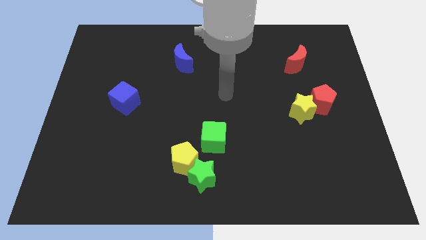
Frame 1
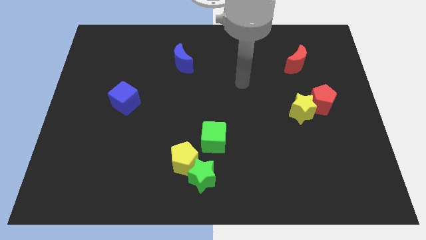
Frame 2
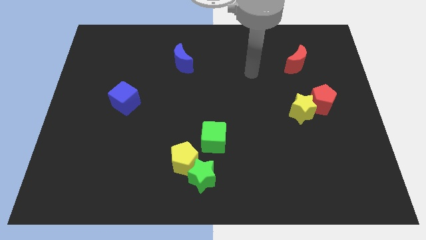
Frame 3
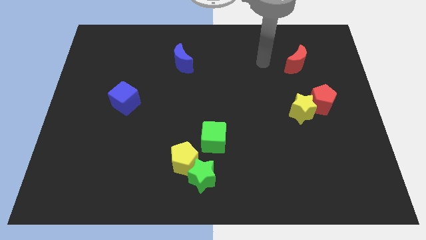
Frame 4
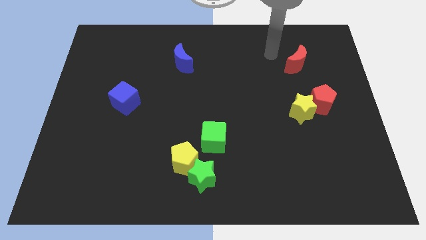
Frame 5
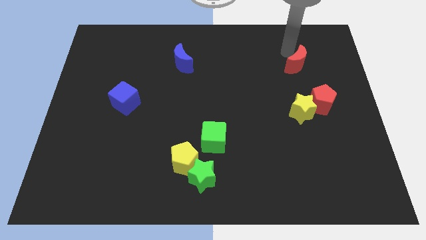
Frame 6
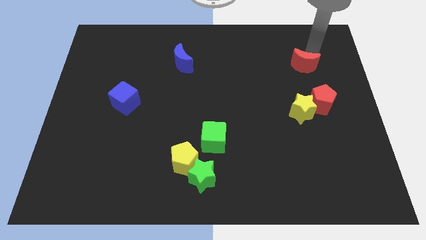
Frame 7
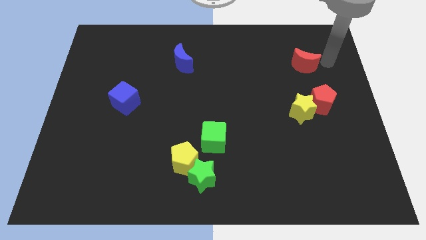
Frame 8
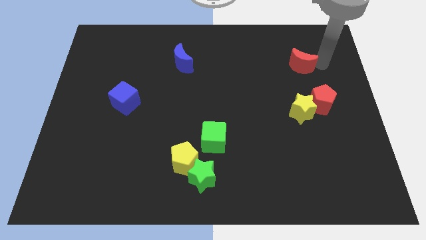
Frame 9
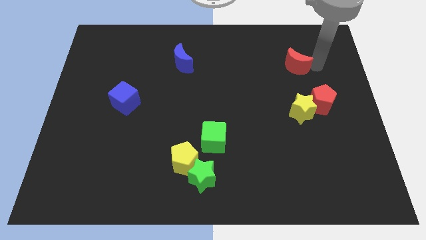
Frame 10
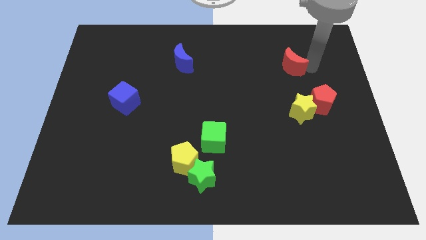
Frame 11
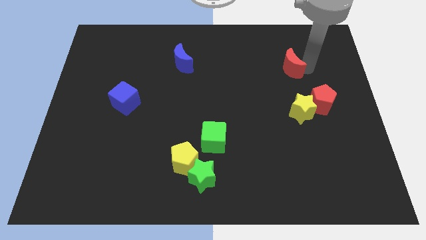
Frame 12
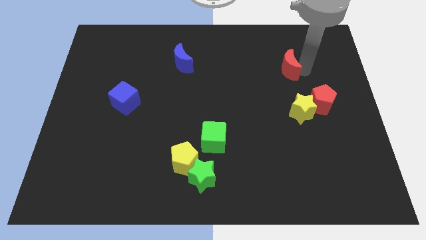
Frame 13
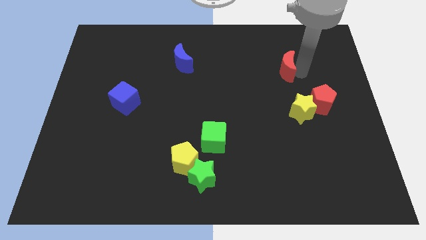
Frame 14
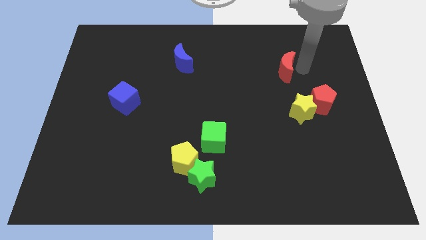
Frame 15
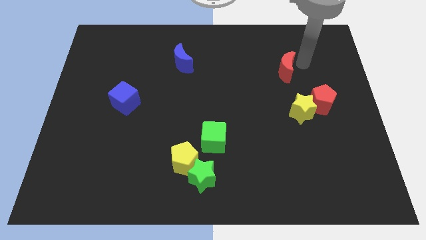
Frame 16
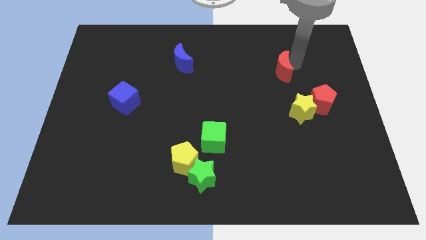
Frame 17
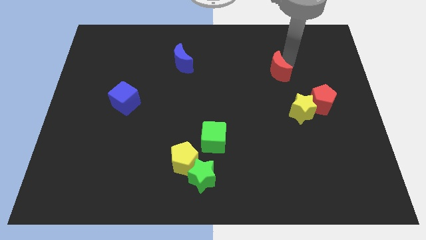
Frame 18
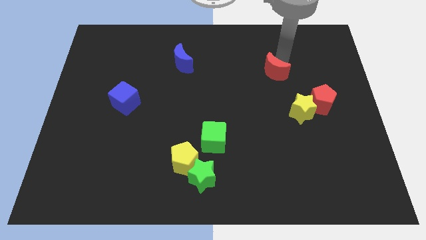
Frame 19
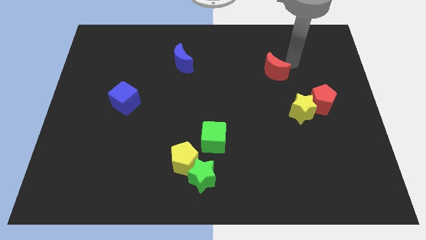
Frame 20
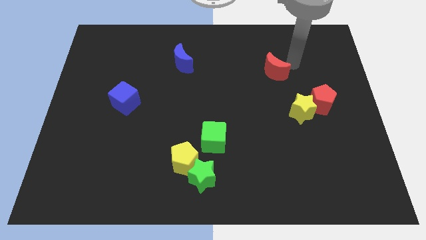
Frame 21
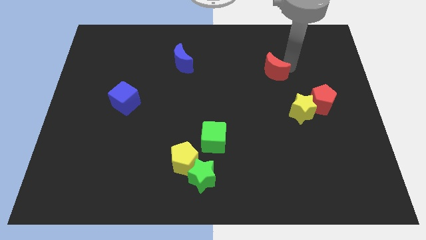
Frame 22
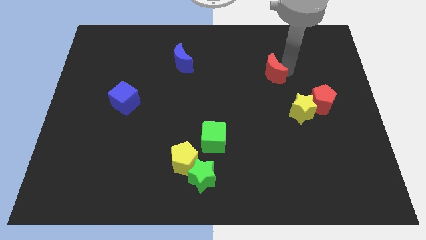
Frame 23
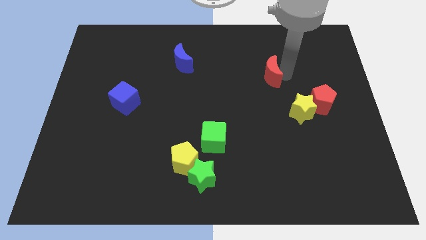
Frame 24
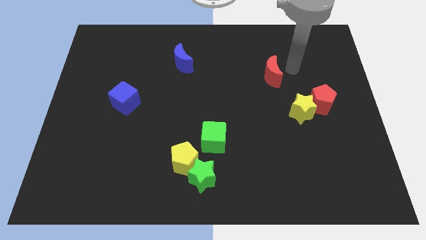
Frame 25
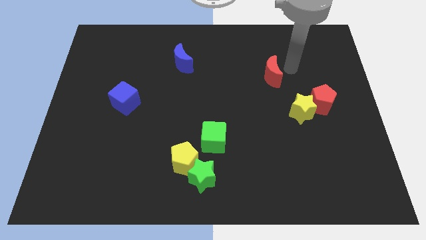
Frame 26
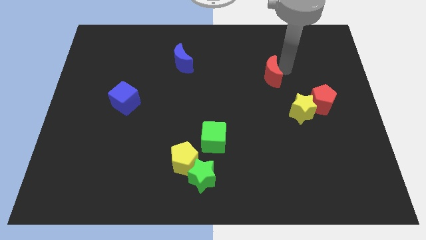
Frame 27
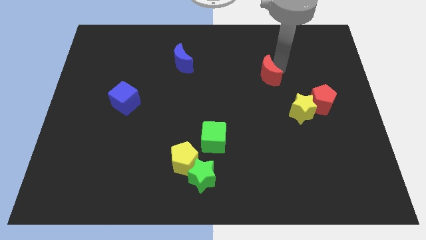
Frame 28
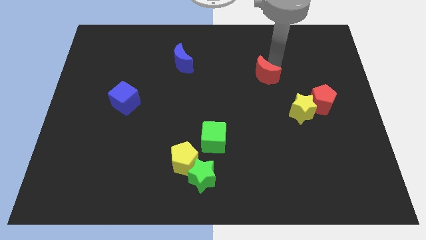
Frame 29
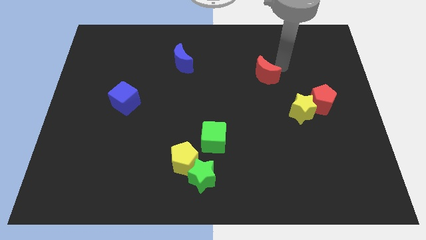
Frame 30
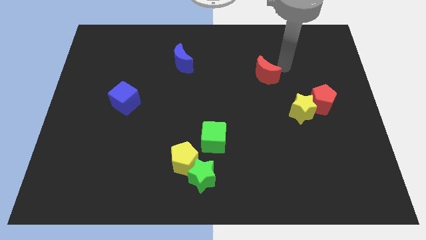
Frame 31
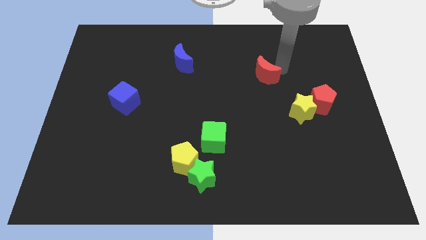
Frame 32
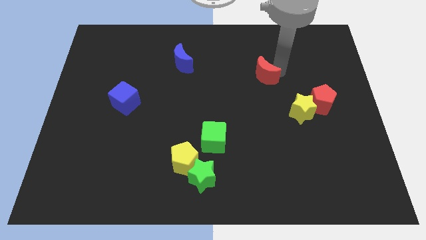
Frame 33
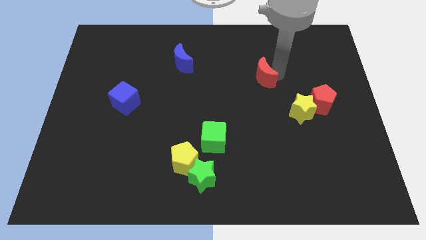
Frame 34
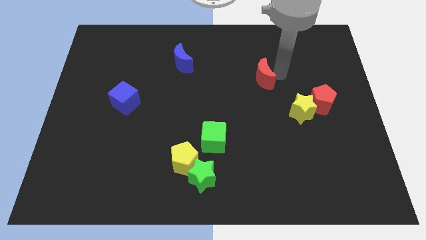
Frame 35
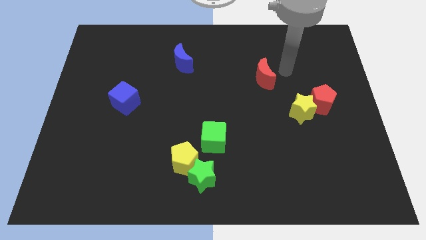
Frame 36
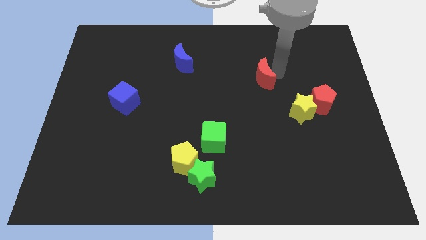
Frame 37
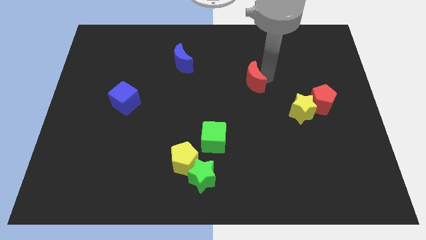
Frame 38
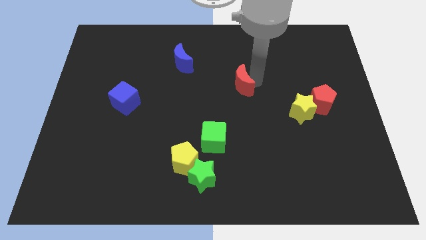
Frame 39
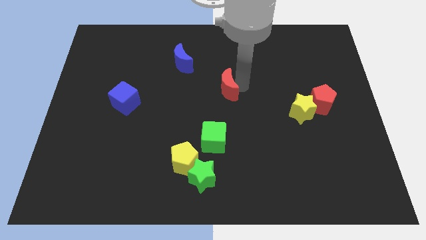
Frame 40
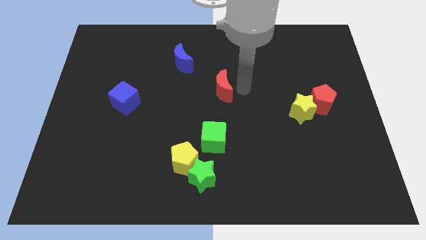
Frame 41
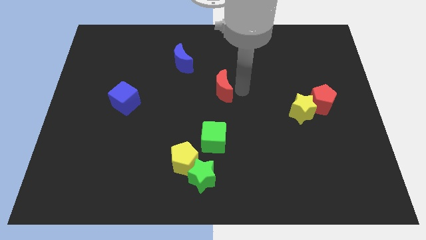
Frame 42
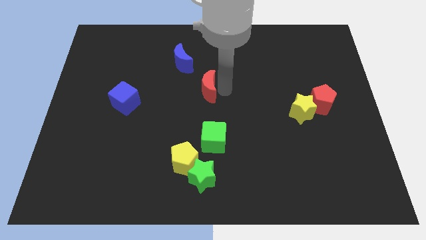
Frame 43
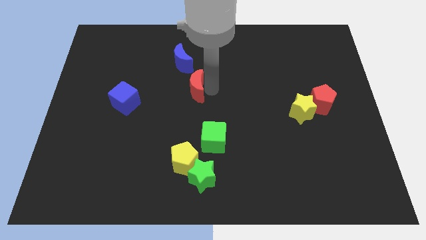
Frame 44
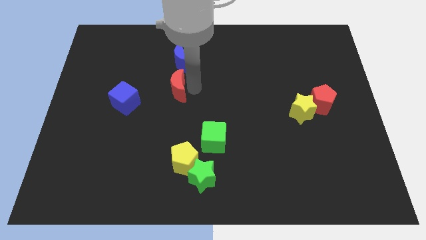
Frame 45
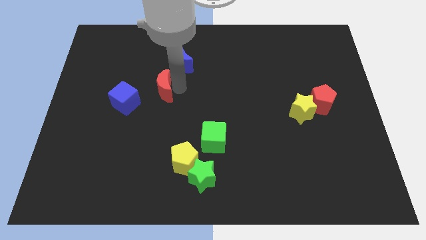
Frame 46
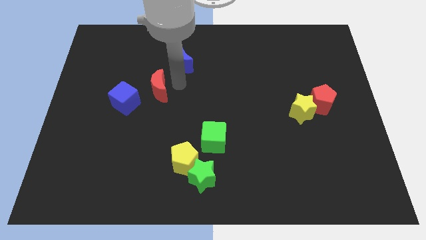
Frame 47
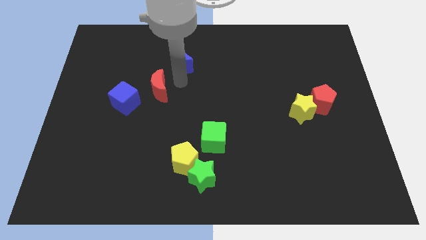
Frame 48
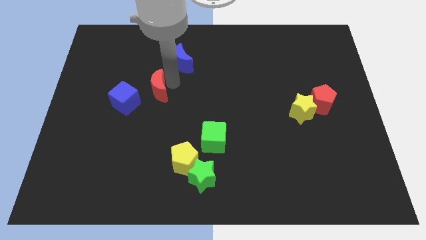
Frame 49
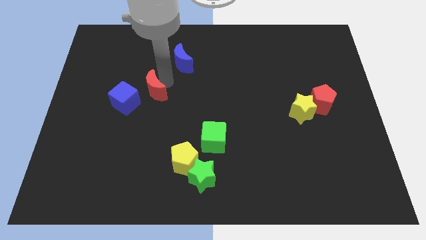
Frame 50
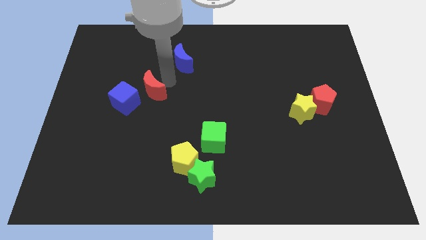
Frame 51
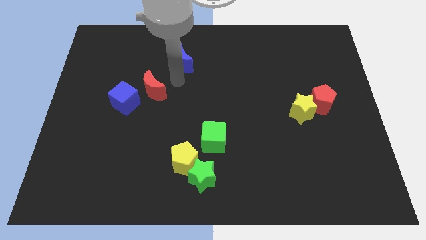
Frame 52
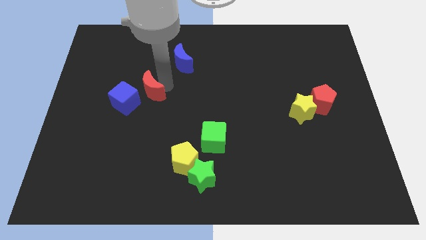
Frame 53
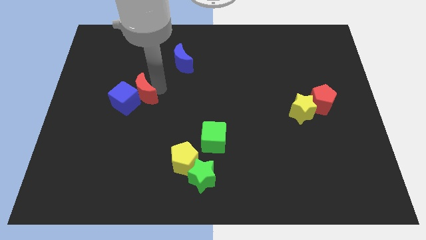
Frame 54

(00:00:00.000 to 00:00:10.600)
put the red moon to the blue cube

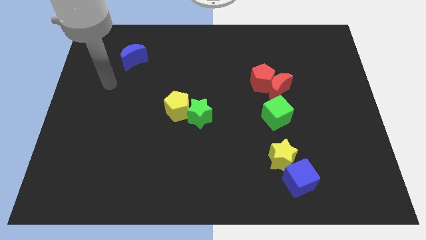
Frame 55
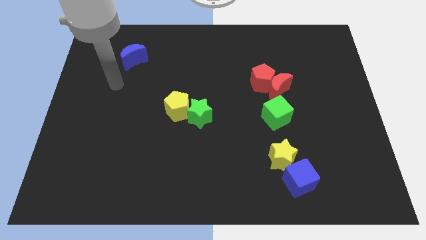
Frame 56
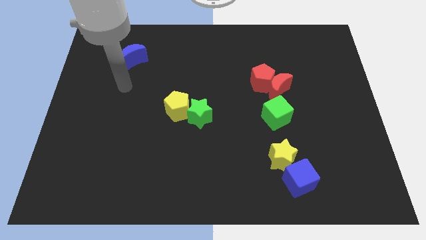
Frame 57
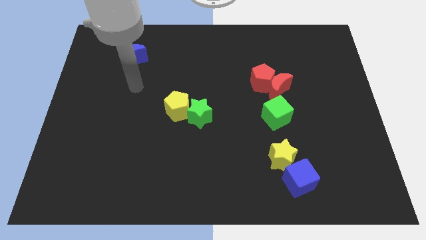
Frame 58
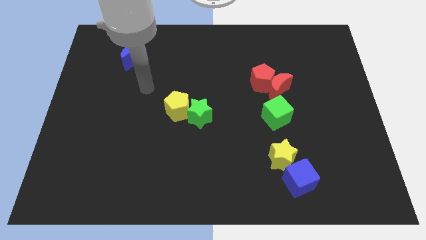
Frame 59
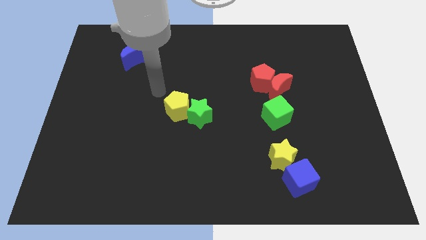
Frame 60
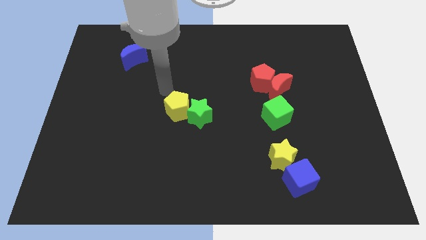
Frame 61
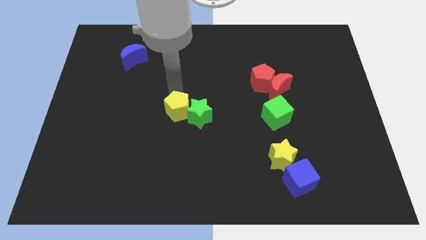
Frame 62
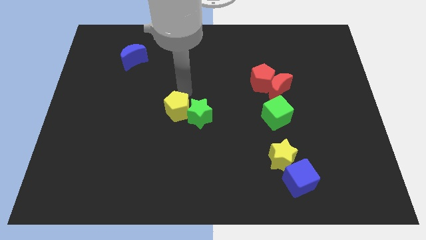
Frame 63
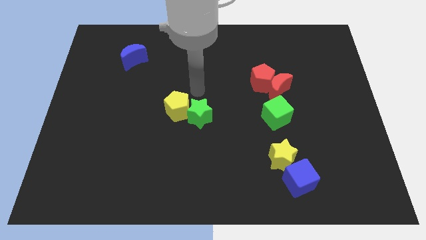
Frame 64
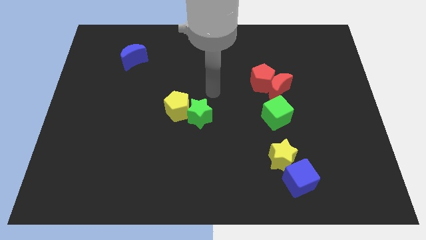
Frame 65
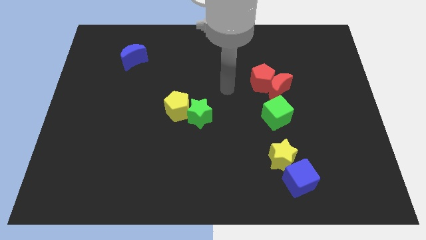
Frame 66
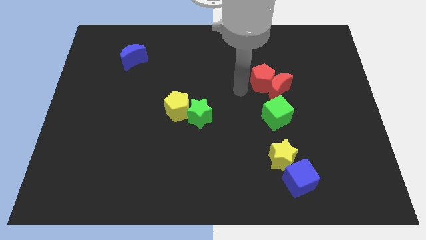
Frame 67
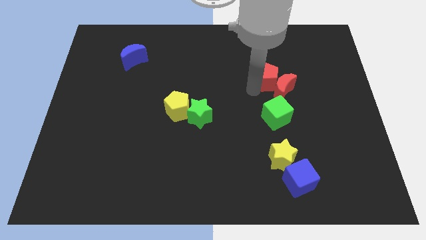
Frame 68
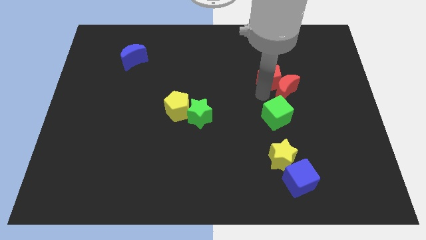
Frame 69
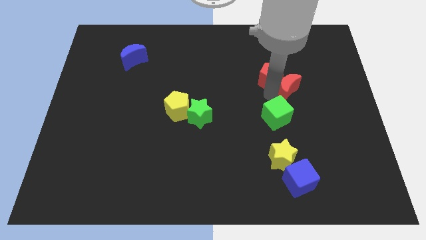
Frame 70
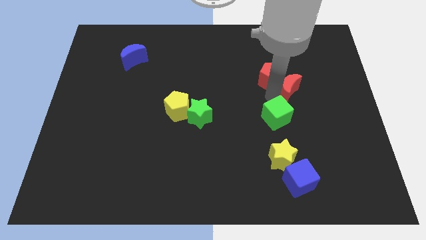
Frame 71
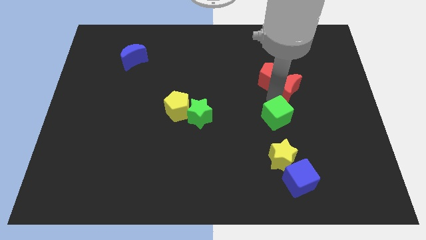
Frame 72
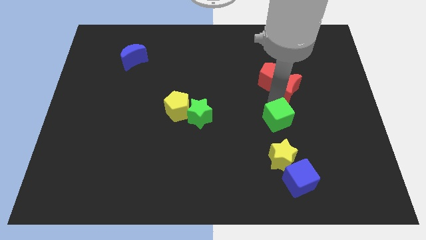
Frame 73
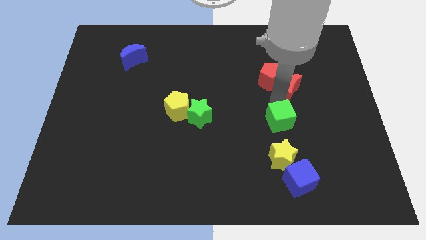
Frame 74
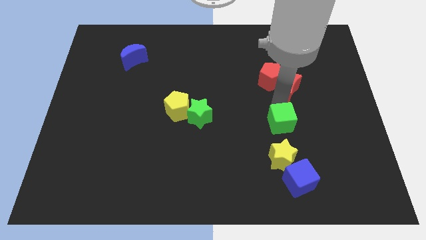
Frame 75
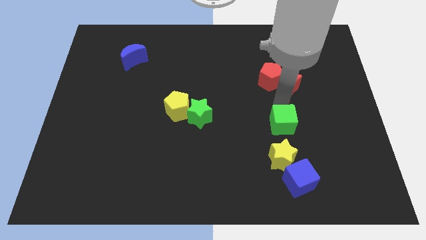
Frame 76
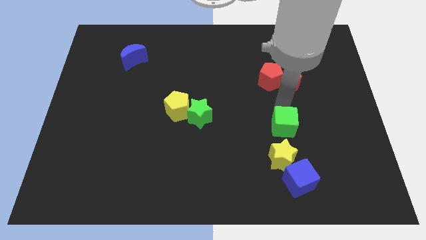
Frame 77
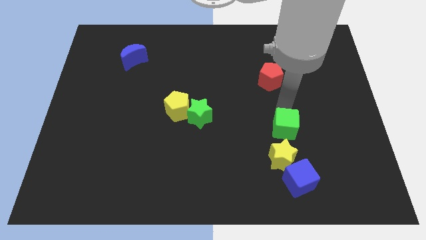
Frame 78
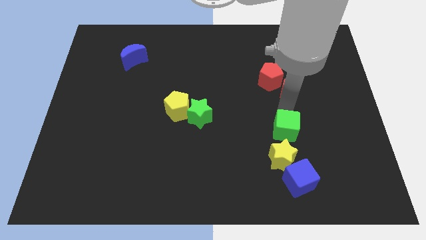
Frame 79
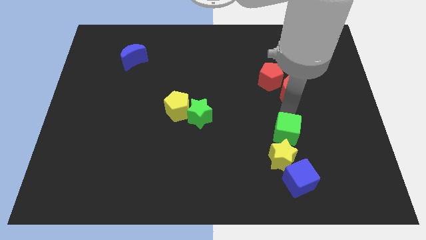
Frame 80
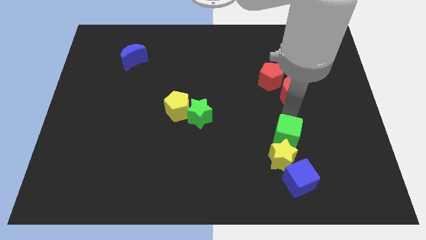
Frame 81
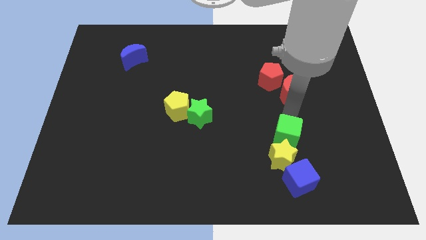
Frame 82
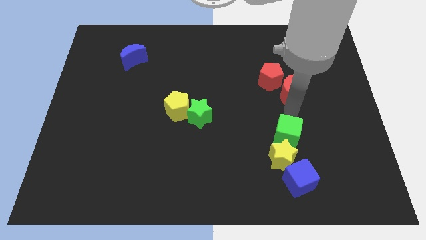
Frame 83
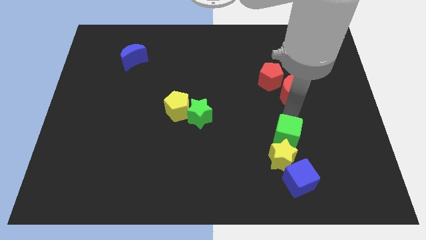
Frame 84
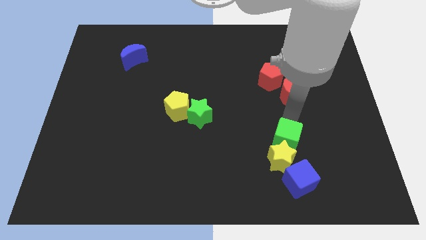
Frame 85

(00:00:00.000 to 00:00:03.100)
put the green cube next to the yellow star
